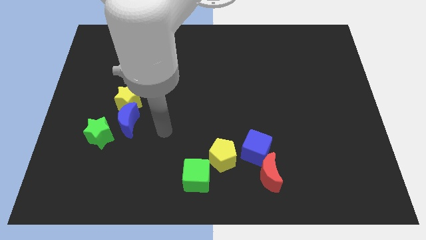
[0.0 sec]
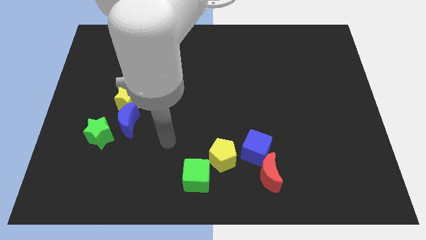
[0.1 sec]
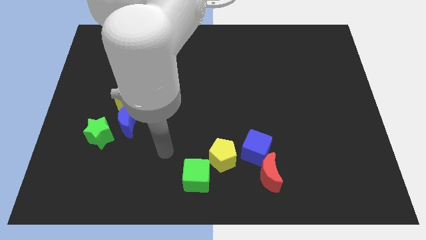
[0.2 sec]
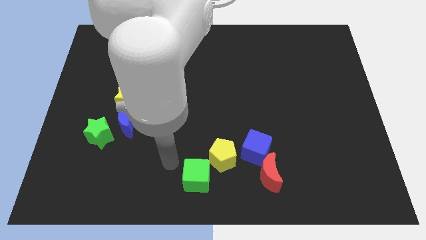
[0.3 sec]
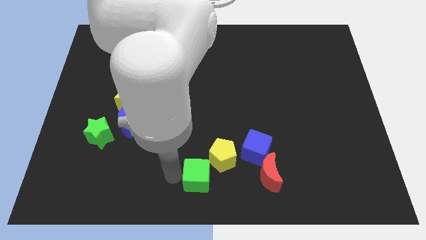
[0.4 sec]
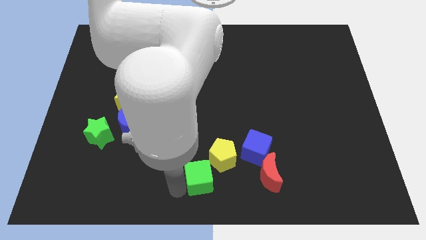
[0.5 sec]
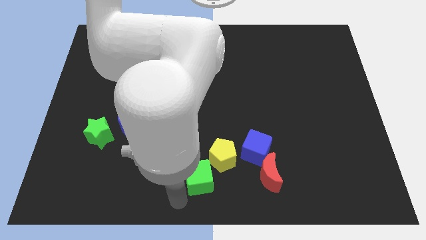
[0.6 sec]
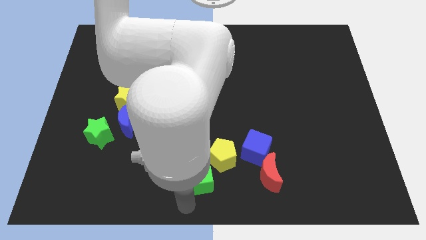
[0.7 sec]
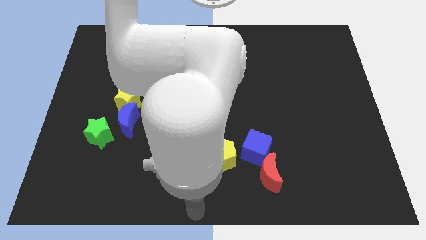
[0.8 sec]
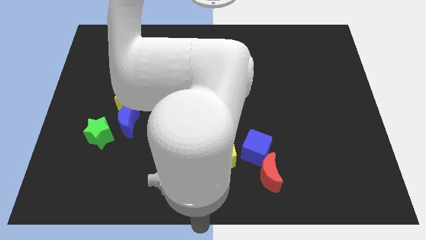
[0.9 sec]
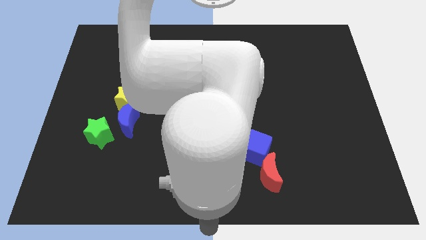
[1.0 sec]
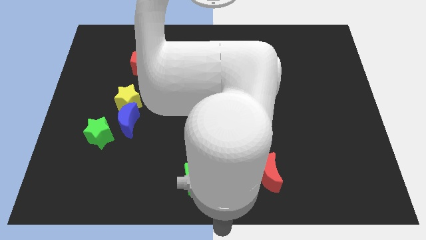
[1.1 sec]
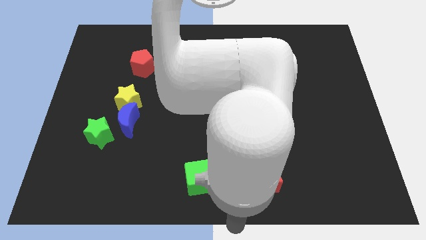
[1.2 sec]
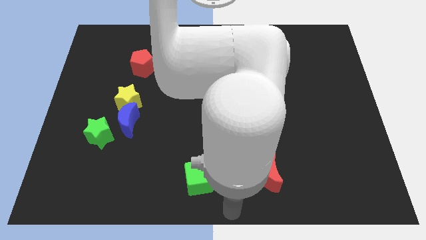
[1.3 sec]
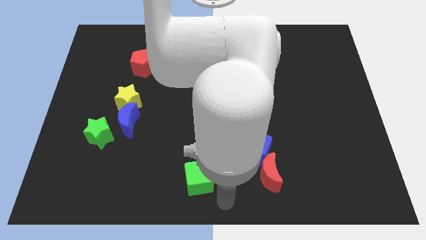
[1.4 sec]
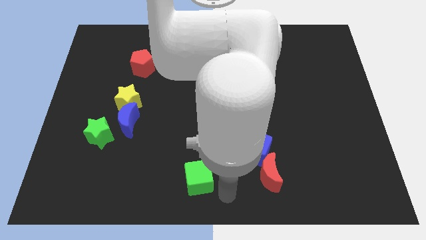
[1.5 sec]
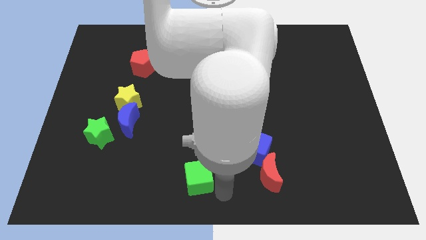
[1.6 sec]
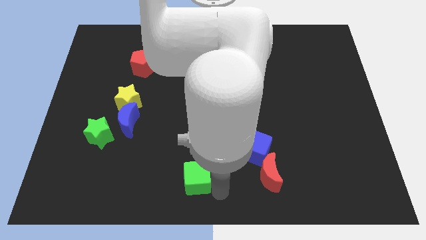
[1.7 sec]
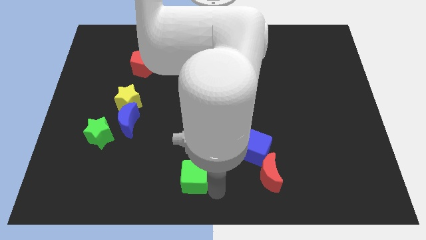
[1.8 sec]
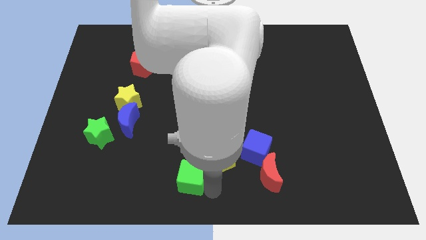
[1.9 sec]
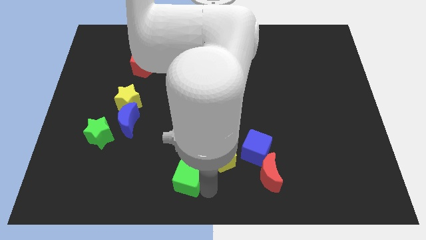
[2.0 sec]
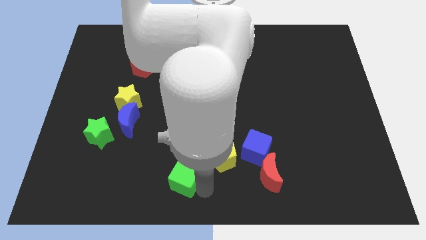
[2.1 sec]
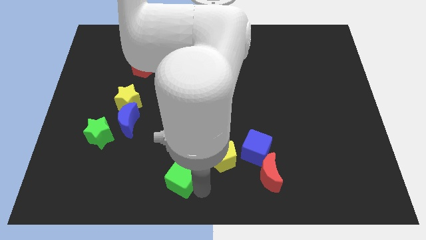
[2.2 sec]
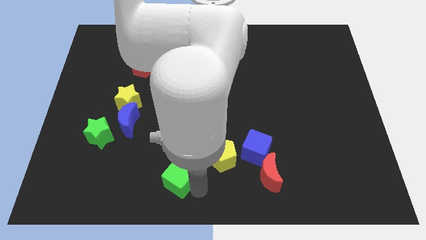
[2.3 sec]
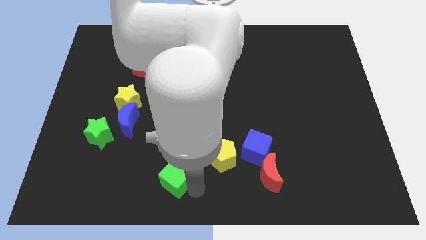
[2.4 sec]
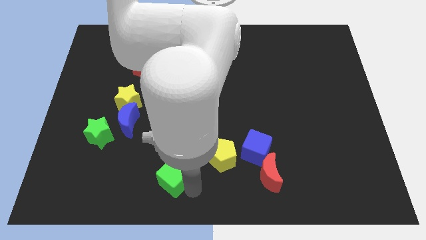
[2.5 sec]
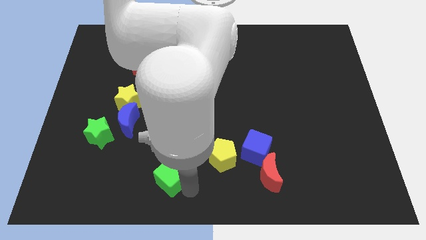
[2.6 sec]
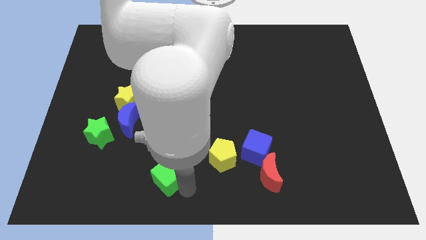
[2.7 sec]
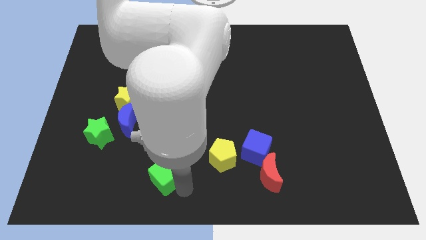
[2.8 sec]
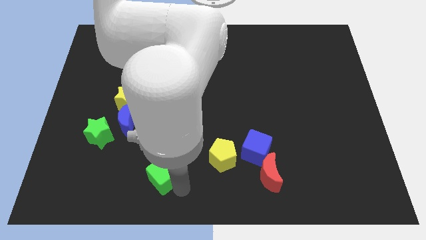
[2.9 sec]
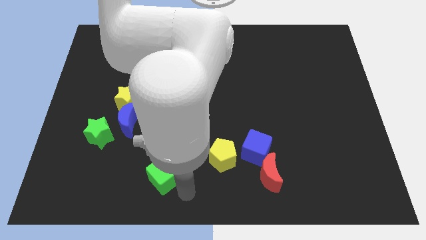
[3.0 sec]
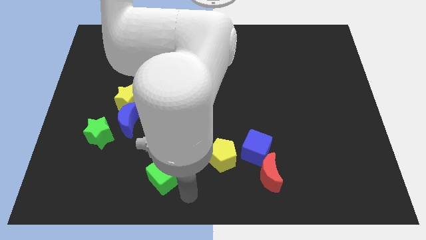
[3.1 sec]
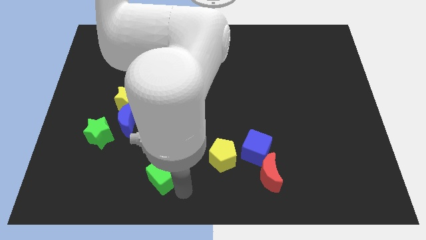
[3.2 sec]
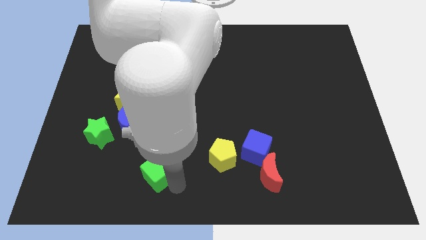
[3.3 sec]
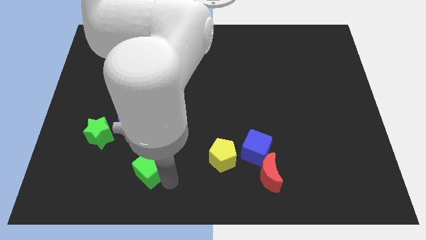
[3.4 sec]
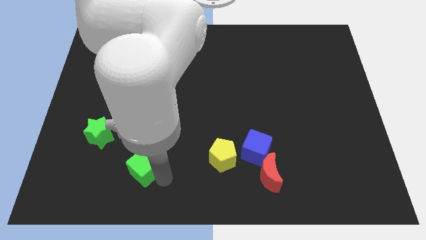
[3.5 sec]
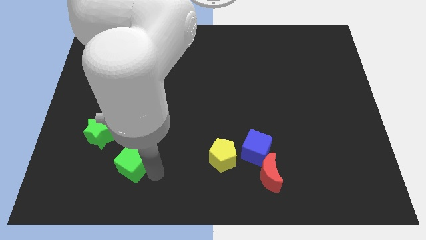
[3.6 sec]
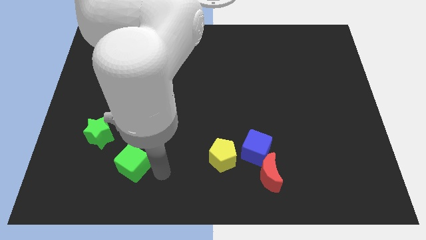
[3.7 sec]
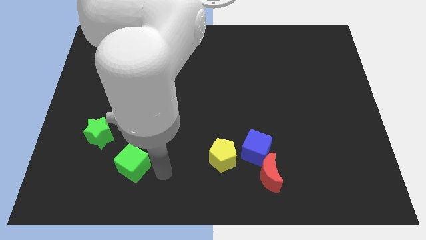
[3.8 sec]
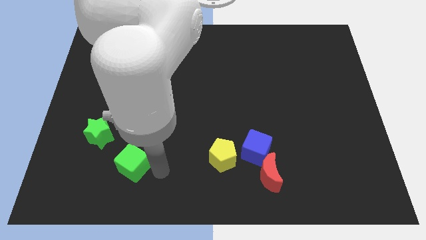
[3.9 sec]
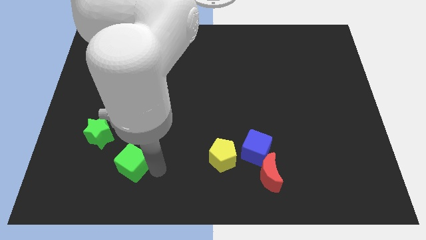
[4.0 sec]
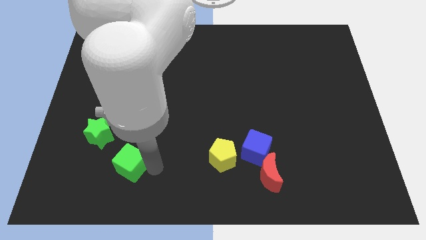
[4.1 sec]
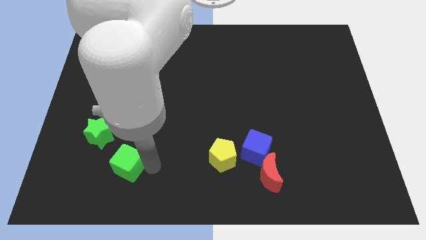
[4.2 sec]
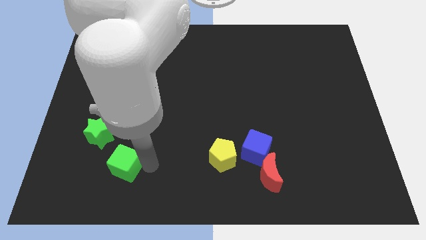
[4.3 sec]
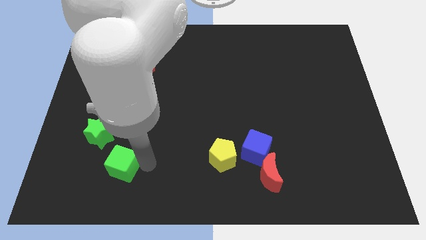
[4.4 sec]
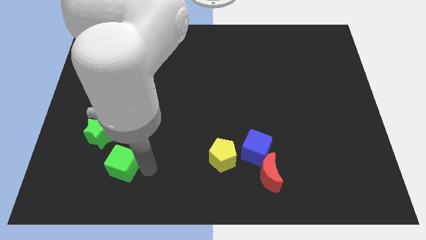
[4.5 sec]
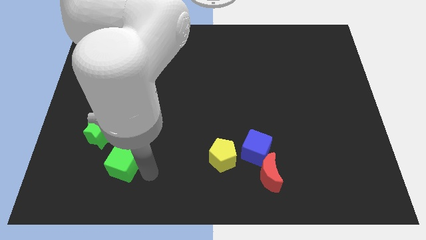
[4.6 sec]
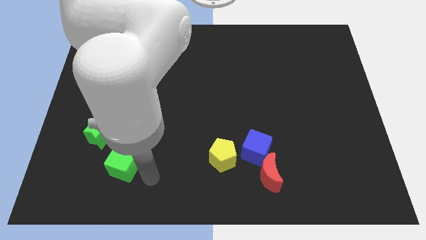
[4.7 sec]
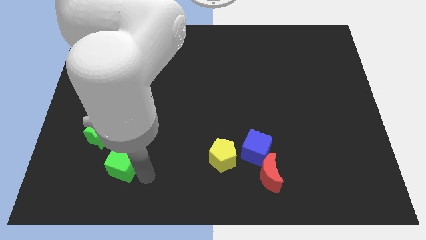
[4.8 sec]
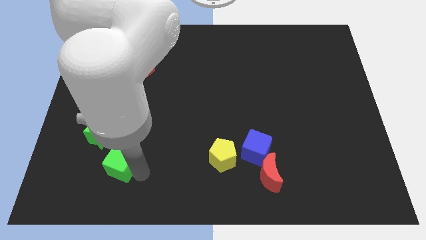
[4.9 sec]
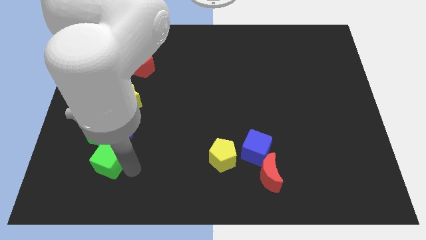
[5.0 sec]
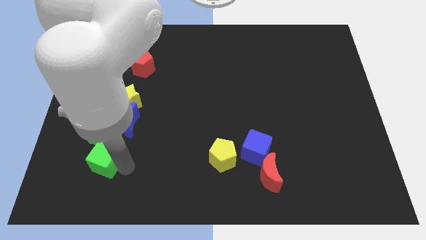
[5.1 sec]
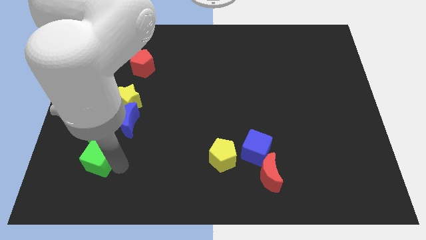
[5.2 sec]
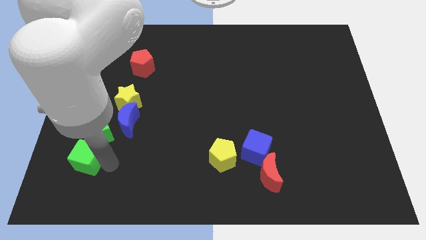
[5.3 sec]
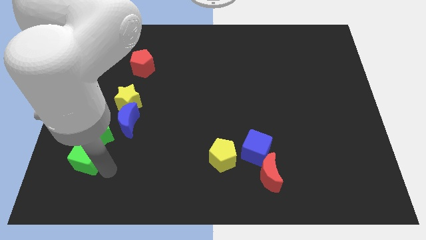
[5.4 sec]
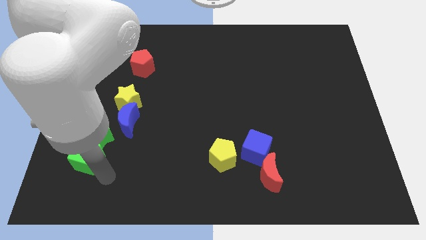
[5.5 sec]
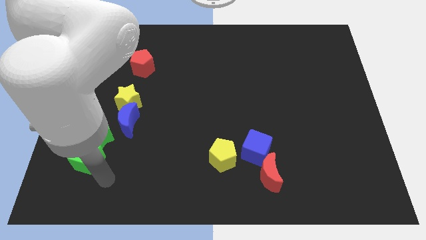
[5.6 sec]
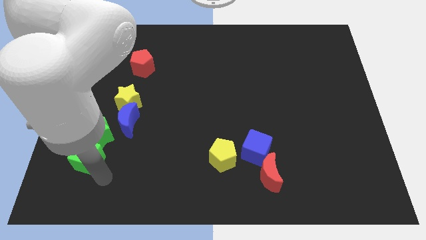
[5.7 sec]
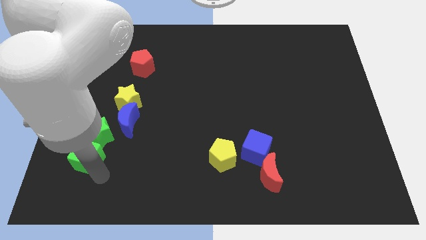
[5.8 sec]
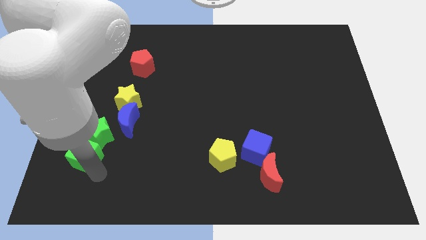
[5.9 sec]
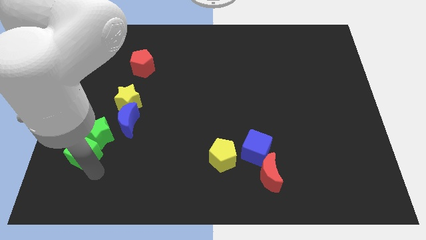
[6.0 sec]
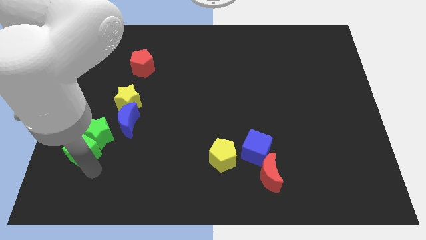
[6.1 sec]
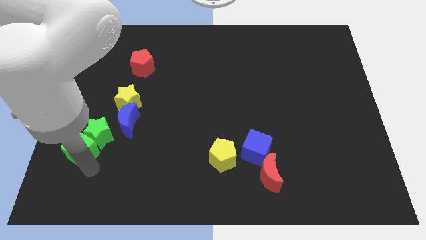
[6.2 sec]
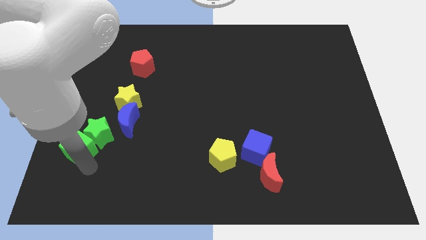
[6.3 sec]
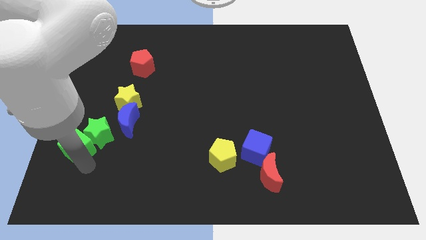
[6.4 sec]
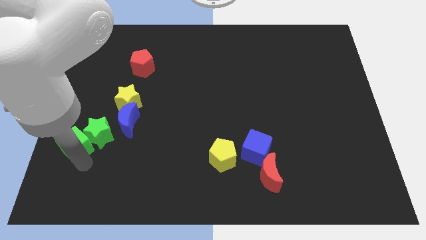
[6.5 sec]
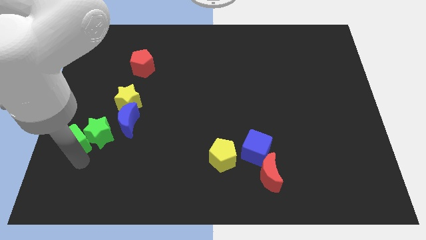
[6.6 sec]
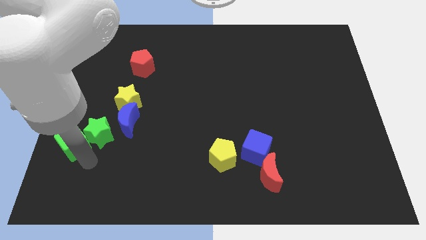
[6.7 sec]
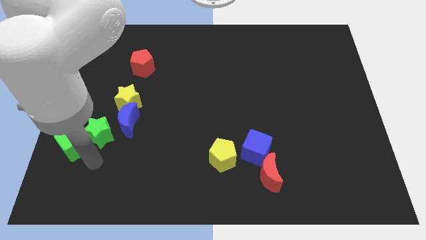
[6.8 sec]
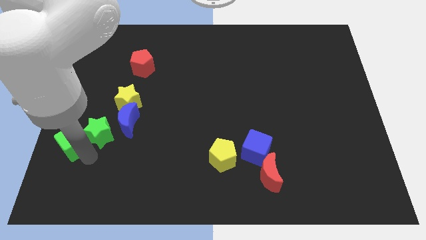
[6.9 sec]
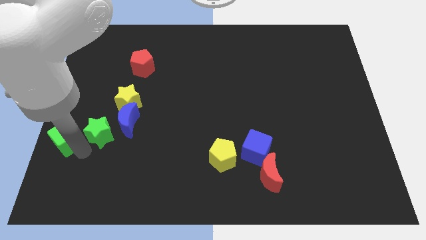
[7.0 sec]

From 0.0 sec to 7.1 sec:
push the green cube to the left side
